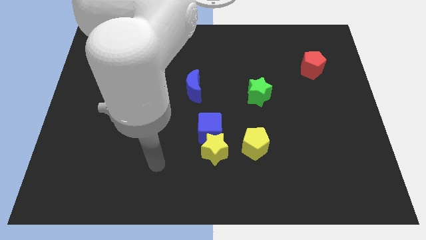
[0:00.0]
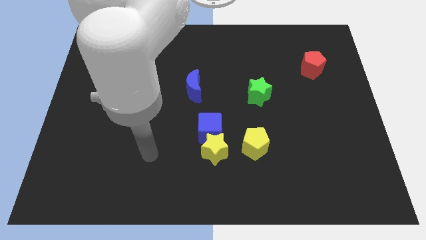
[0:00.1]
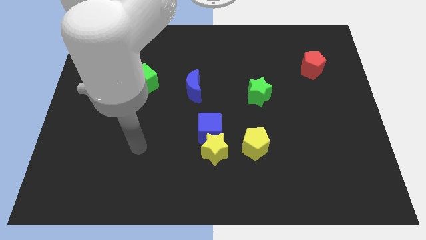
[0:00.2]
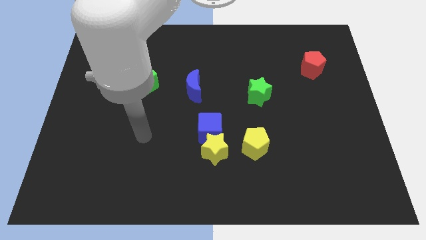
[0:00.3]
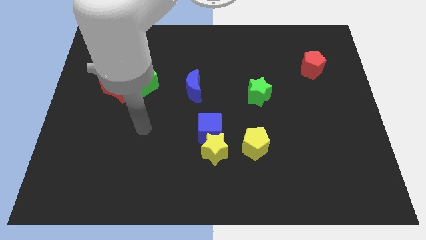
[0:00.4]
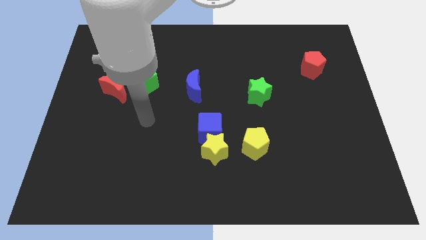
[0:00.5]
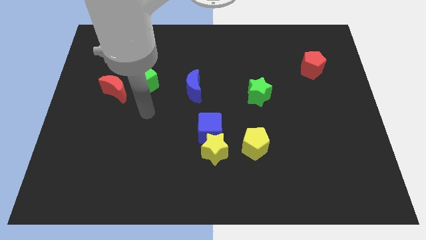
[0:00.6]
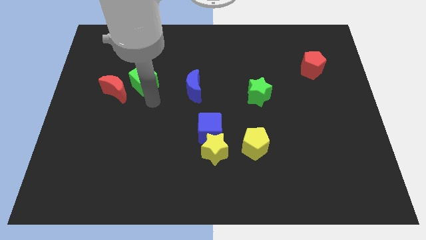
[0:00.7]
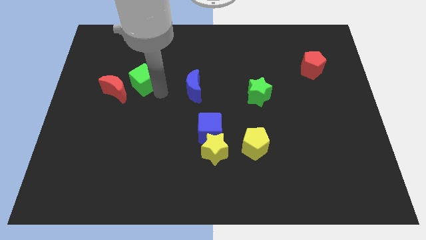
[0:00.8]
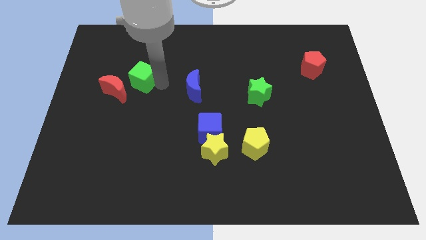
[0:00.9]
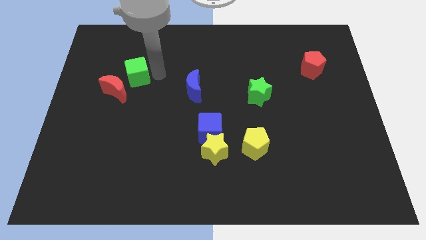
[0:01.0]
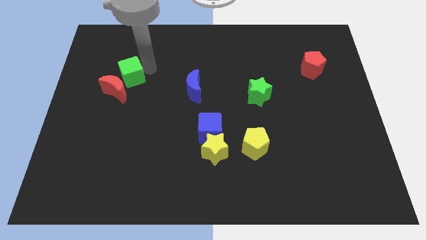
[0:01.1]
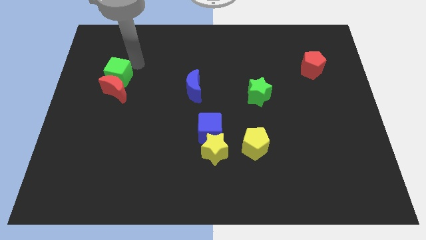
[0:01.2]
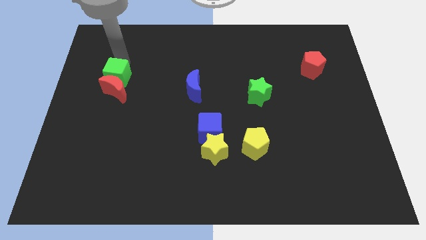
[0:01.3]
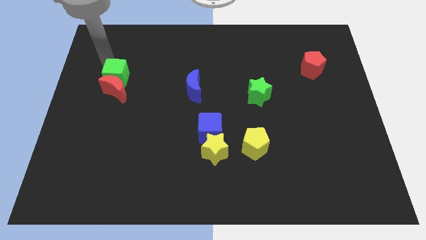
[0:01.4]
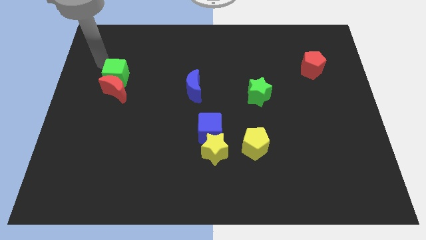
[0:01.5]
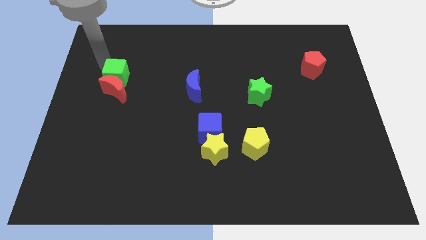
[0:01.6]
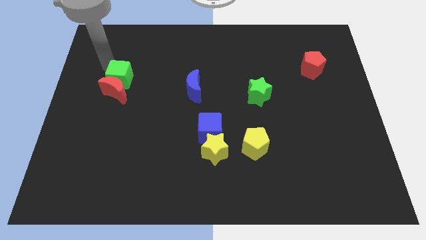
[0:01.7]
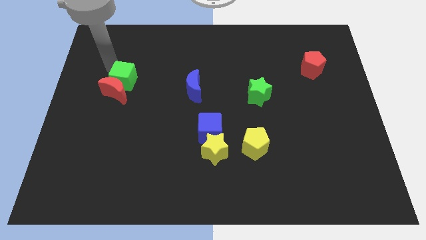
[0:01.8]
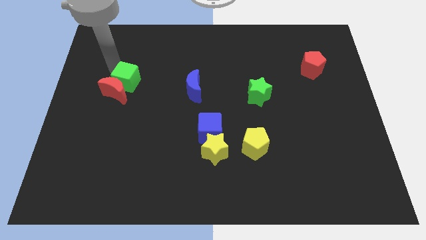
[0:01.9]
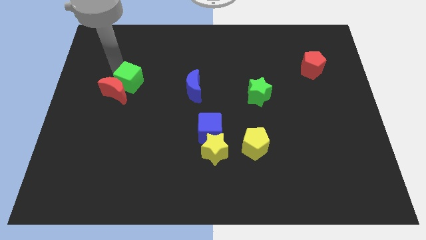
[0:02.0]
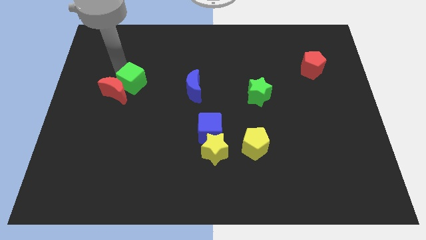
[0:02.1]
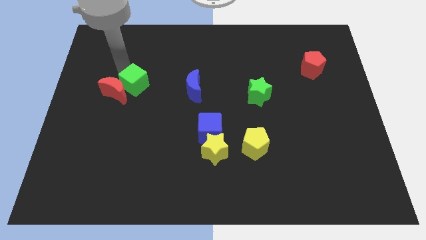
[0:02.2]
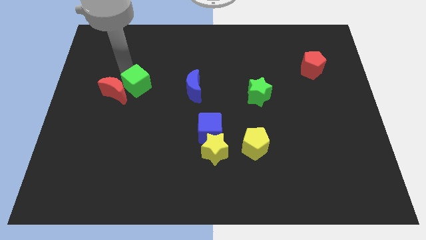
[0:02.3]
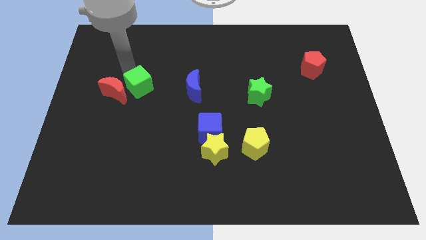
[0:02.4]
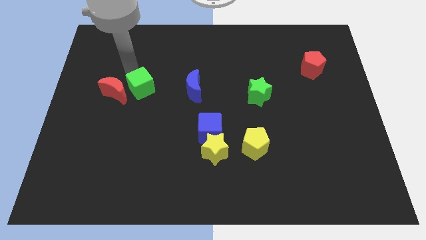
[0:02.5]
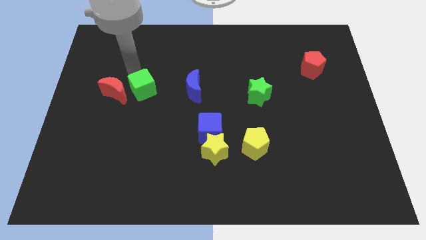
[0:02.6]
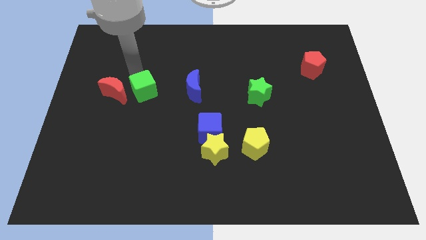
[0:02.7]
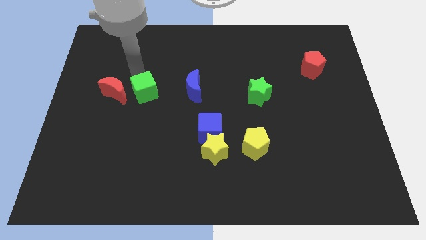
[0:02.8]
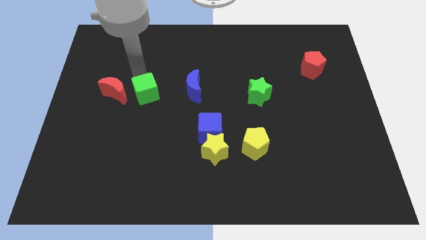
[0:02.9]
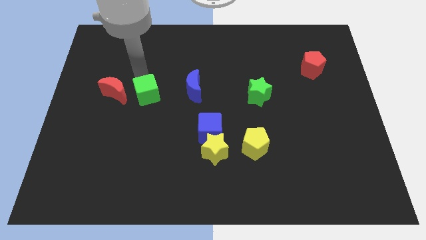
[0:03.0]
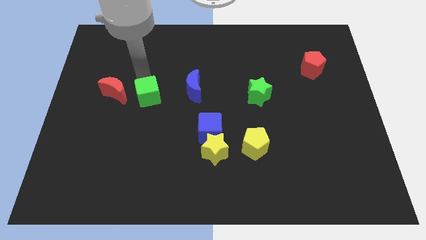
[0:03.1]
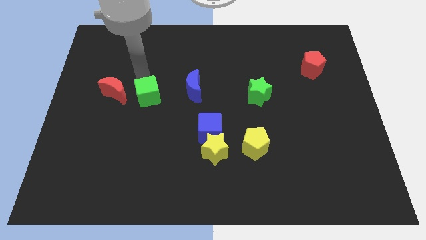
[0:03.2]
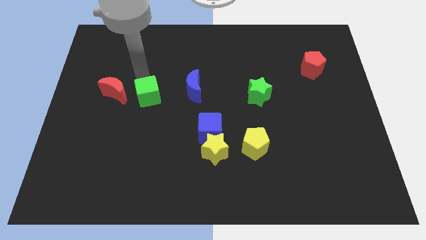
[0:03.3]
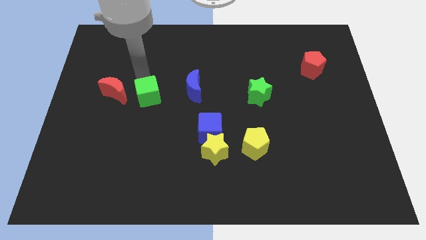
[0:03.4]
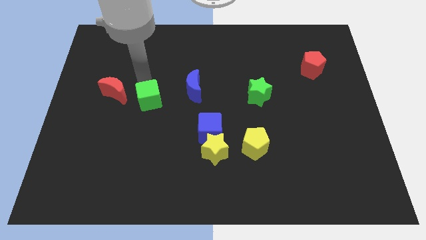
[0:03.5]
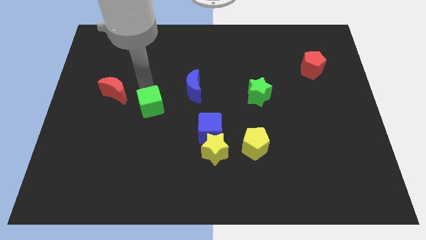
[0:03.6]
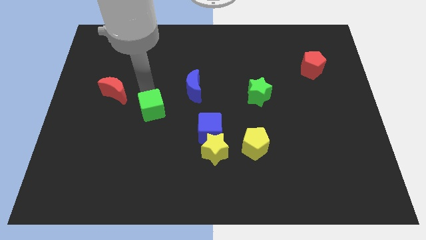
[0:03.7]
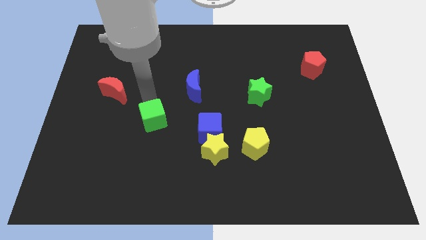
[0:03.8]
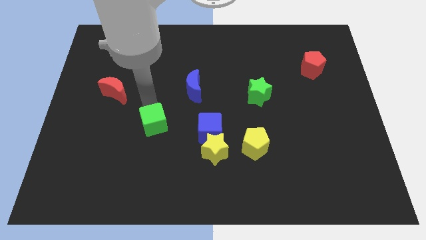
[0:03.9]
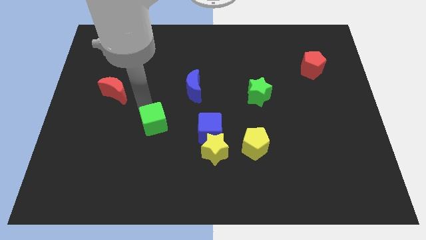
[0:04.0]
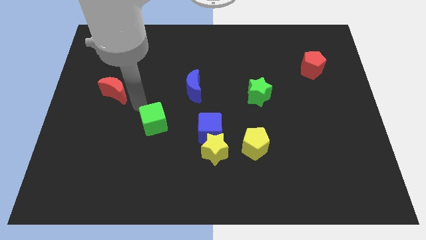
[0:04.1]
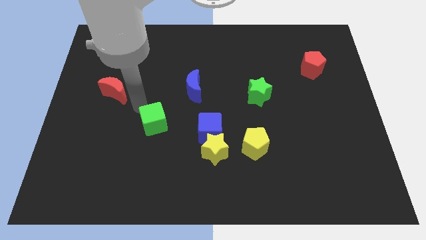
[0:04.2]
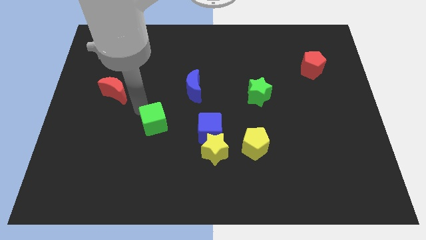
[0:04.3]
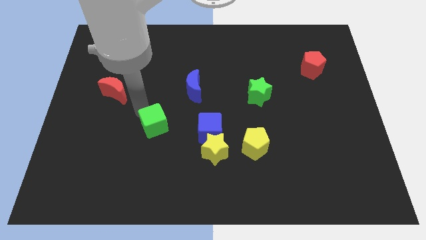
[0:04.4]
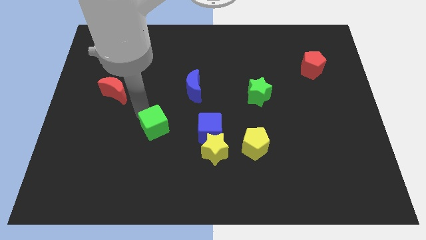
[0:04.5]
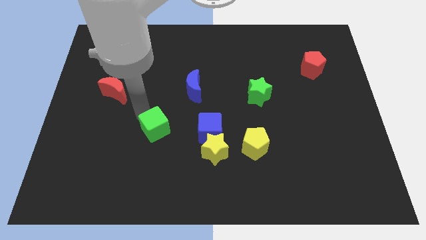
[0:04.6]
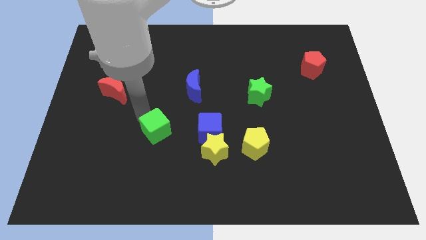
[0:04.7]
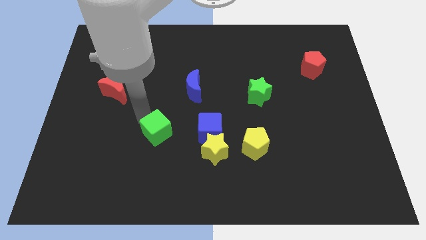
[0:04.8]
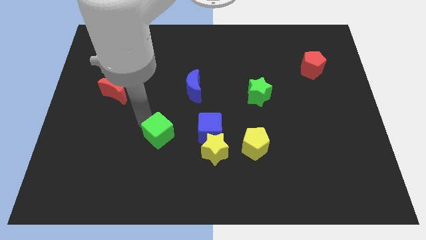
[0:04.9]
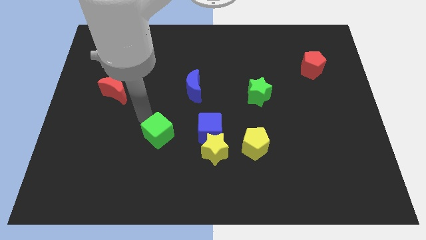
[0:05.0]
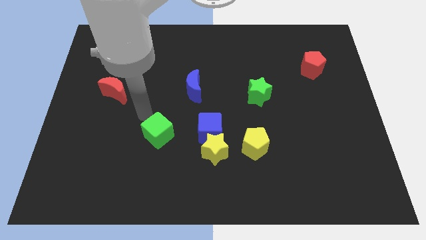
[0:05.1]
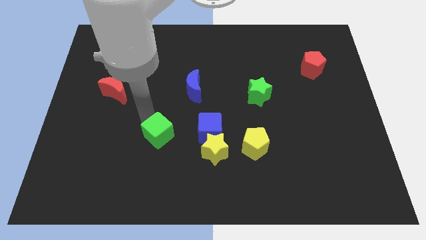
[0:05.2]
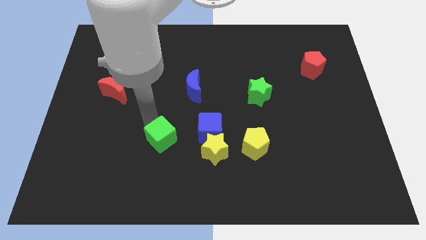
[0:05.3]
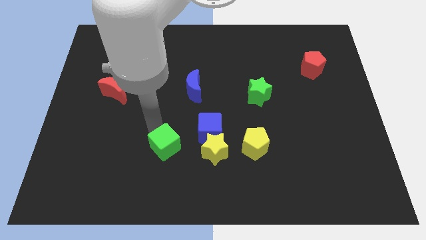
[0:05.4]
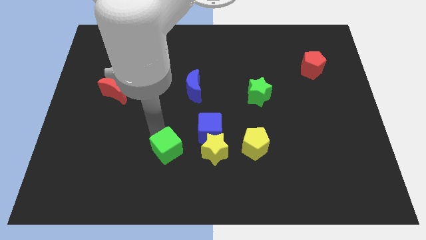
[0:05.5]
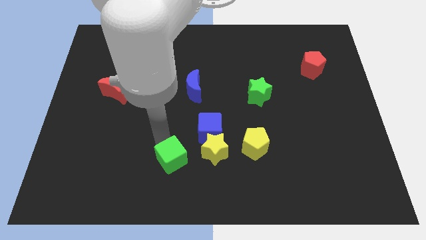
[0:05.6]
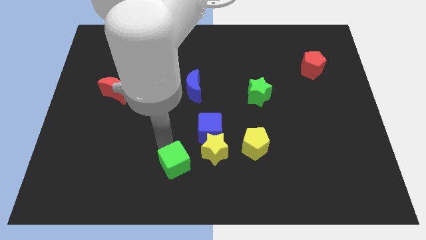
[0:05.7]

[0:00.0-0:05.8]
slide the green cube to the bottom side

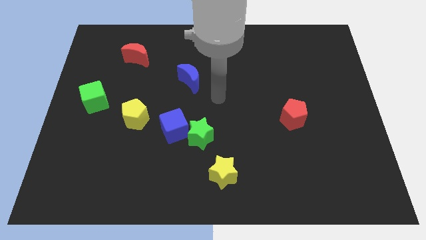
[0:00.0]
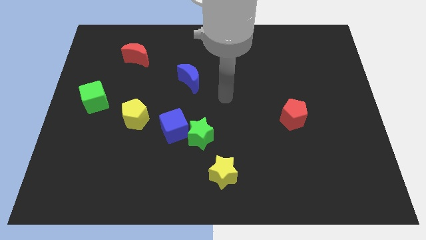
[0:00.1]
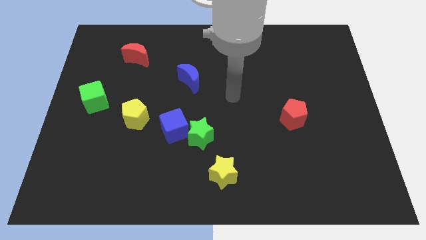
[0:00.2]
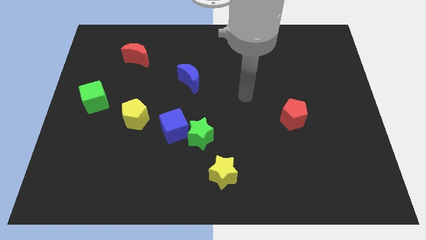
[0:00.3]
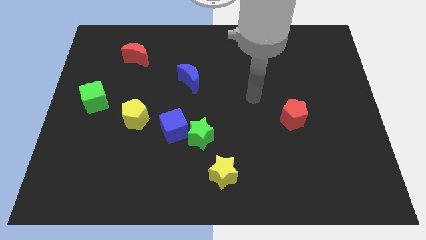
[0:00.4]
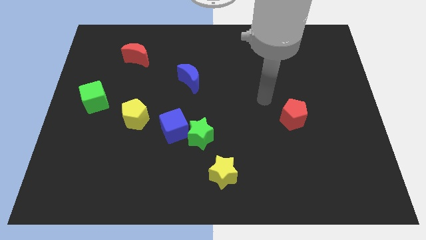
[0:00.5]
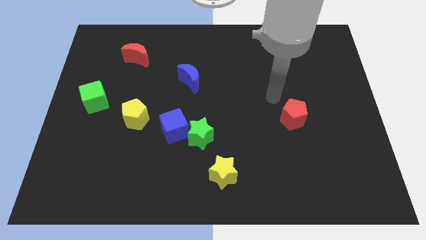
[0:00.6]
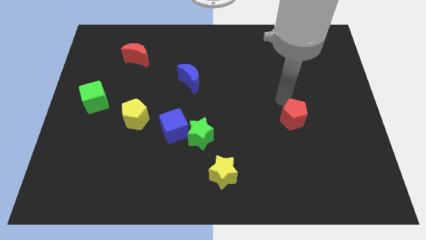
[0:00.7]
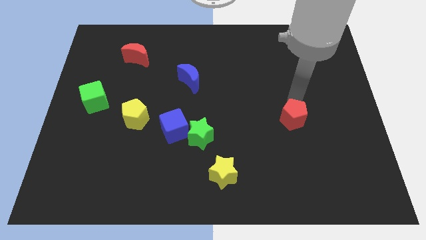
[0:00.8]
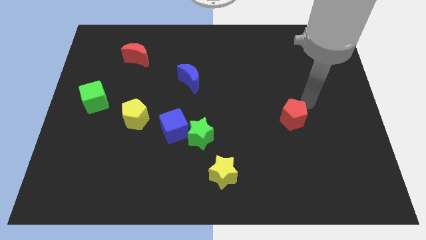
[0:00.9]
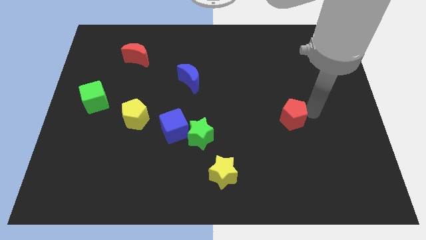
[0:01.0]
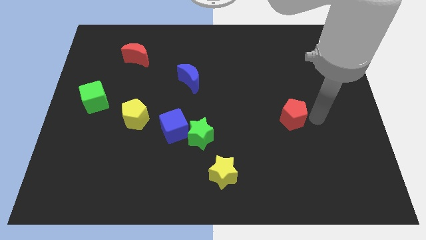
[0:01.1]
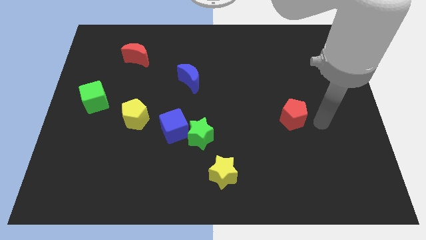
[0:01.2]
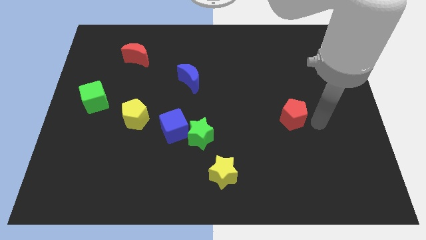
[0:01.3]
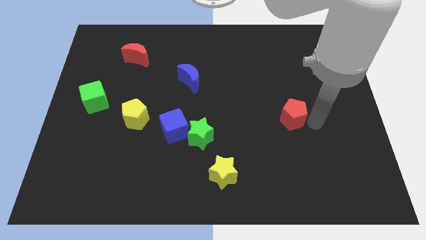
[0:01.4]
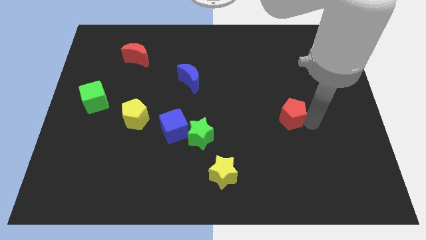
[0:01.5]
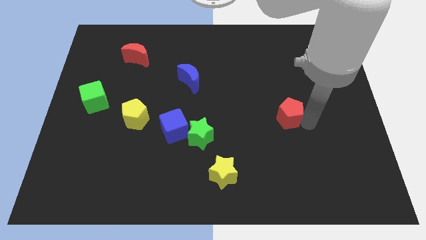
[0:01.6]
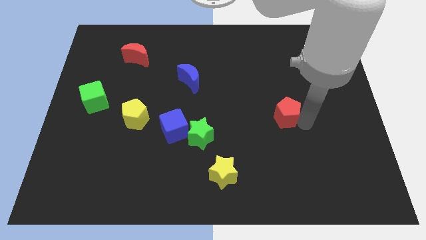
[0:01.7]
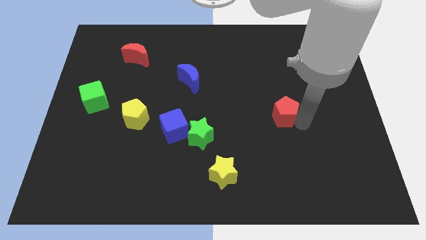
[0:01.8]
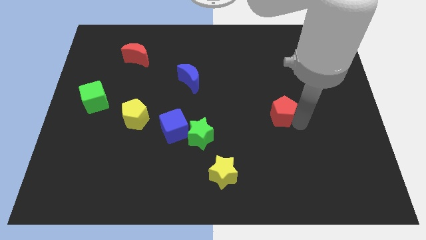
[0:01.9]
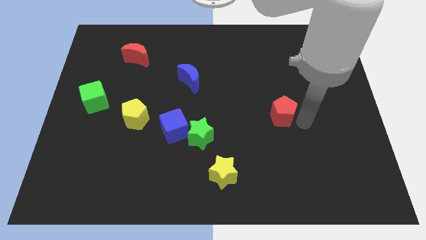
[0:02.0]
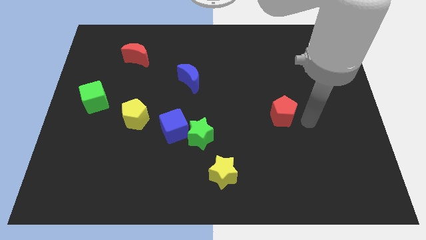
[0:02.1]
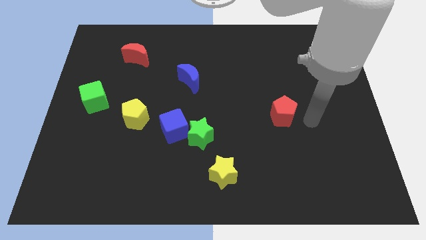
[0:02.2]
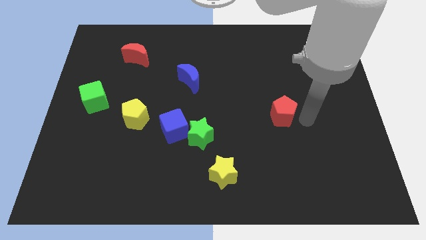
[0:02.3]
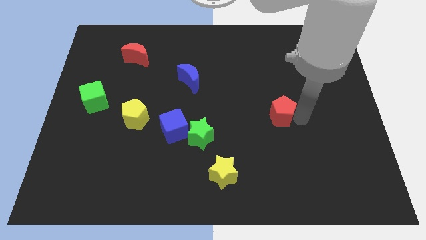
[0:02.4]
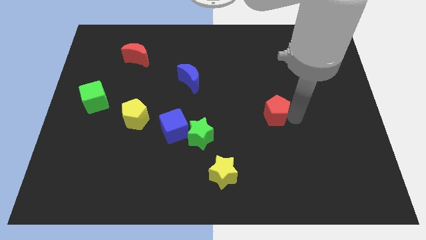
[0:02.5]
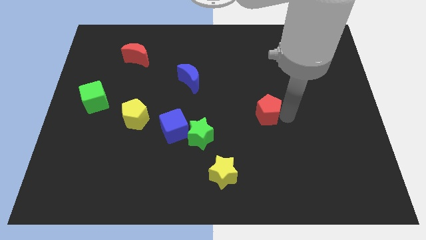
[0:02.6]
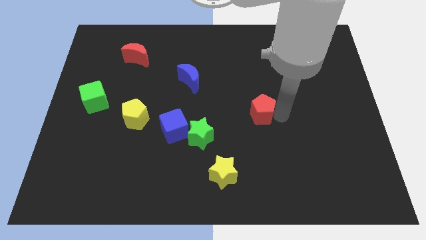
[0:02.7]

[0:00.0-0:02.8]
put the red pentagon to the center of the board
